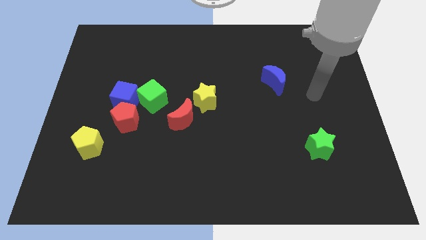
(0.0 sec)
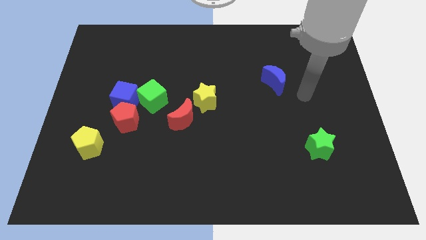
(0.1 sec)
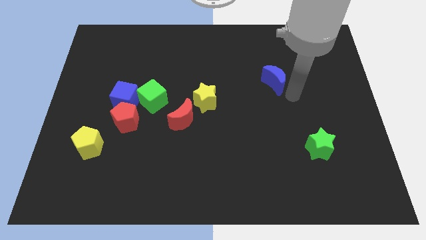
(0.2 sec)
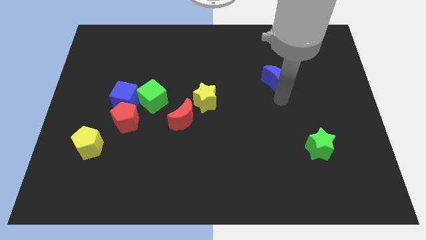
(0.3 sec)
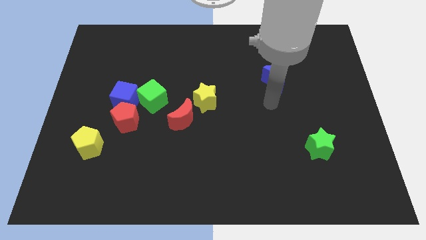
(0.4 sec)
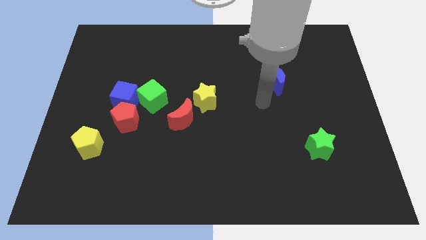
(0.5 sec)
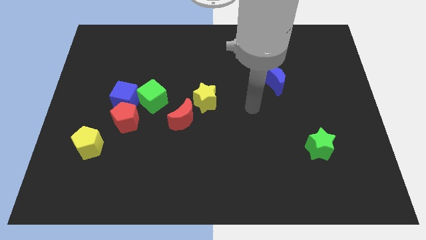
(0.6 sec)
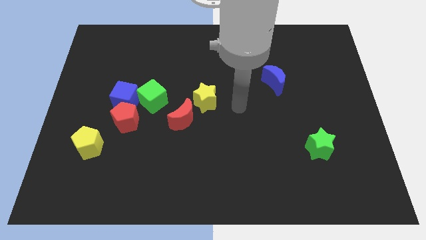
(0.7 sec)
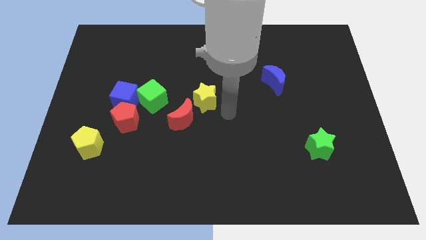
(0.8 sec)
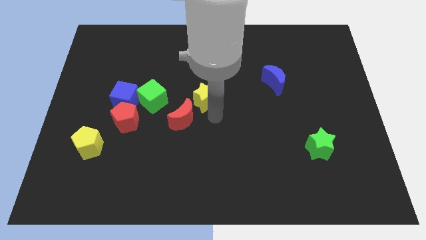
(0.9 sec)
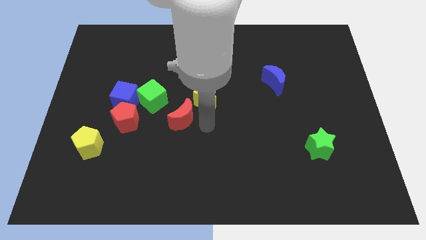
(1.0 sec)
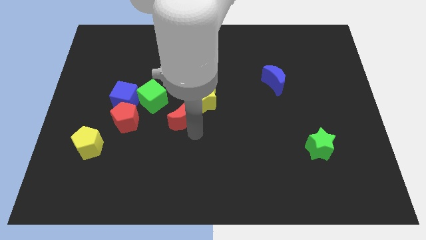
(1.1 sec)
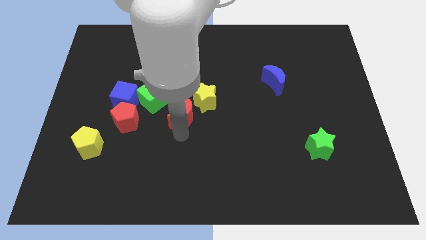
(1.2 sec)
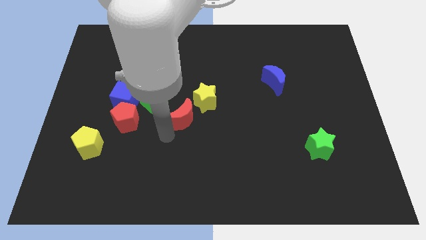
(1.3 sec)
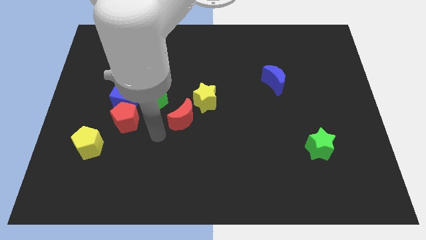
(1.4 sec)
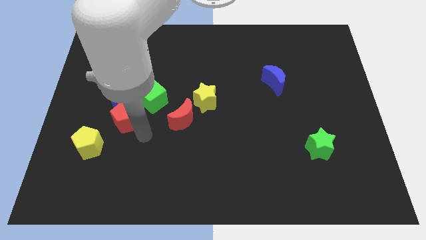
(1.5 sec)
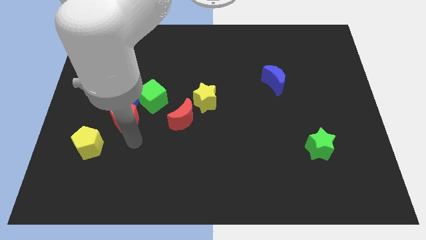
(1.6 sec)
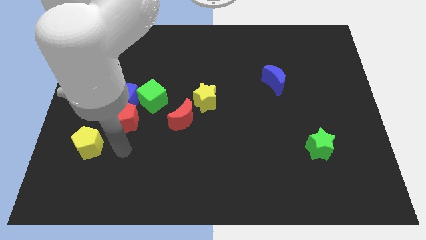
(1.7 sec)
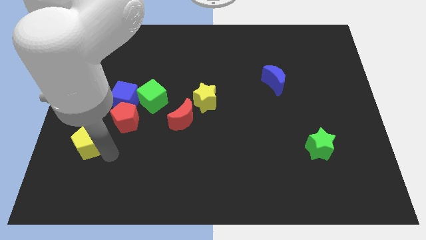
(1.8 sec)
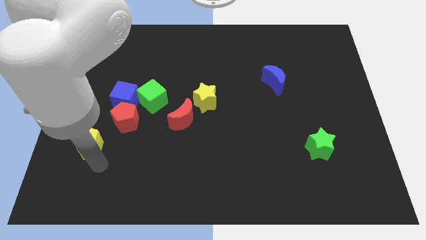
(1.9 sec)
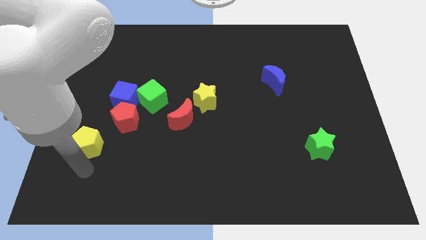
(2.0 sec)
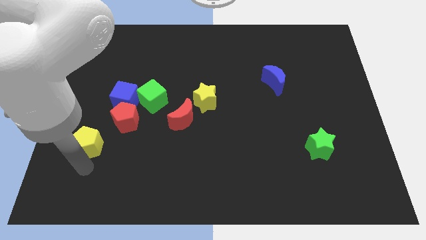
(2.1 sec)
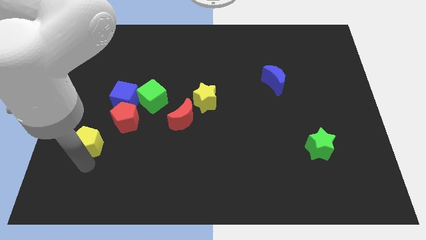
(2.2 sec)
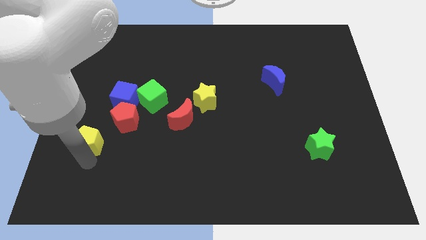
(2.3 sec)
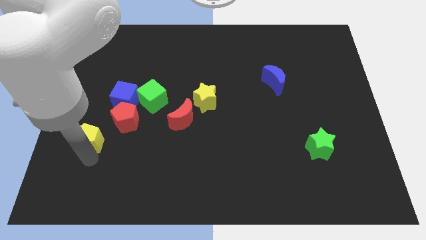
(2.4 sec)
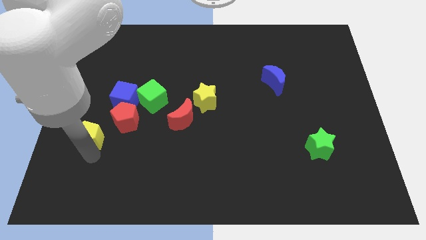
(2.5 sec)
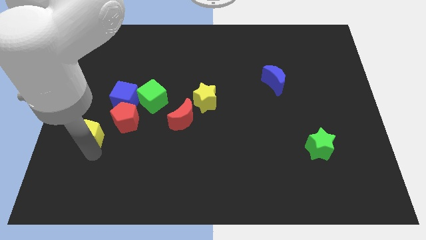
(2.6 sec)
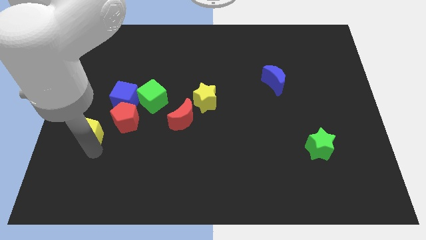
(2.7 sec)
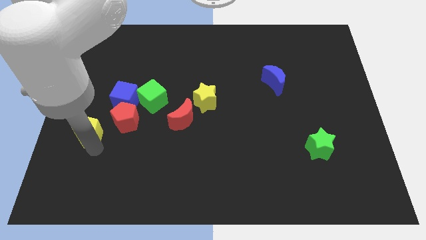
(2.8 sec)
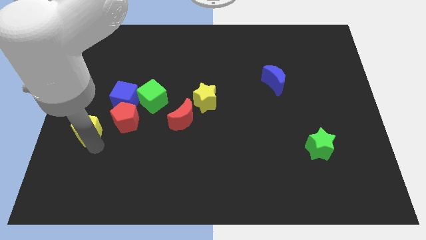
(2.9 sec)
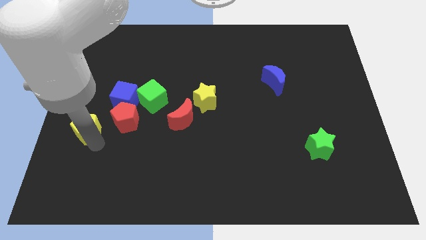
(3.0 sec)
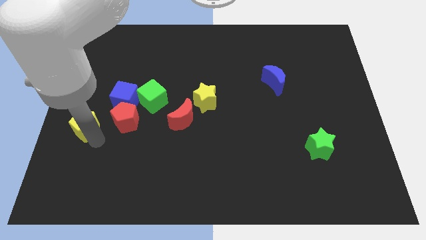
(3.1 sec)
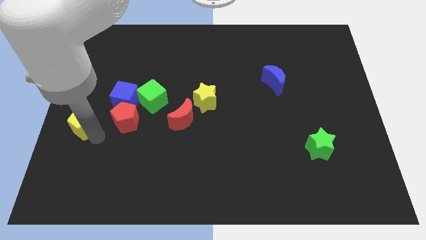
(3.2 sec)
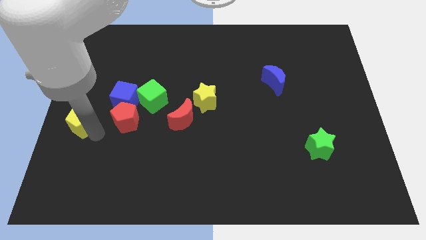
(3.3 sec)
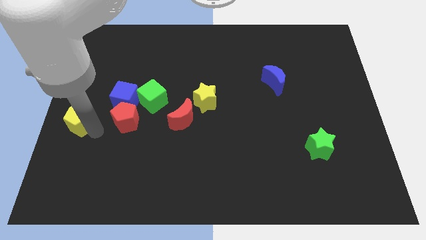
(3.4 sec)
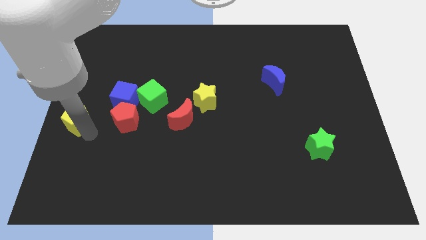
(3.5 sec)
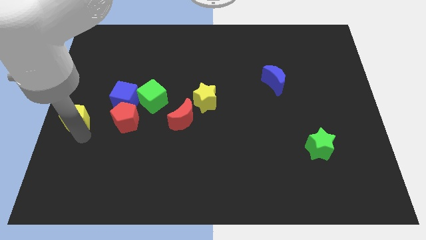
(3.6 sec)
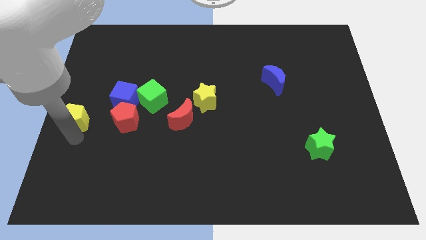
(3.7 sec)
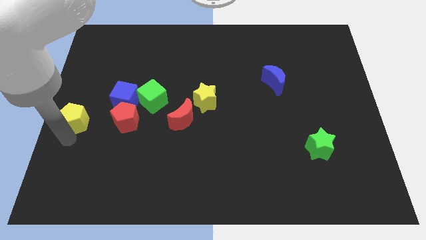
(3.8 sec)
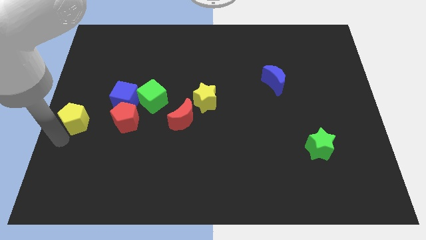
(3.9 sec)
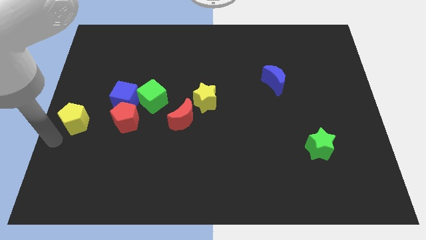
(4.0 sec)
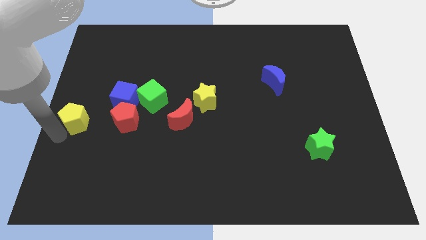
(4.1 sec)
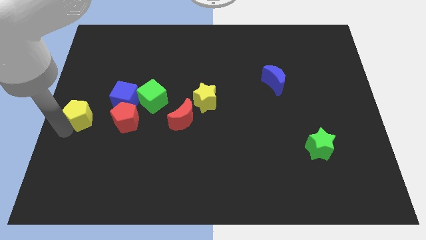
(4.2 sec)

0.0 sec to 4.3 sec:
move the yellow pentagon upwards a bit

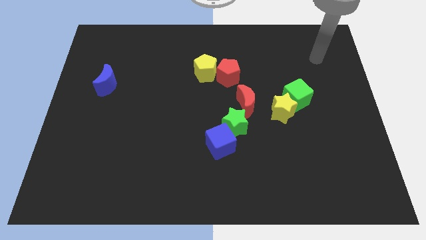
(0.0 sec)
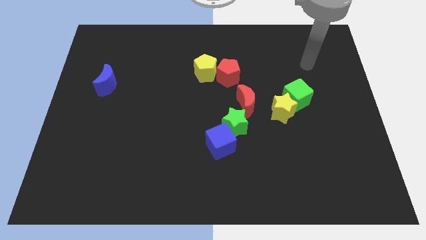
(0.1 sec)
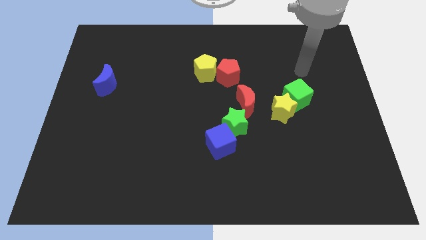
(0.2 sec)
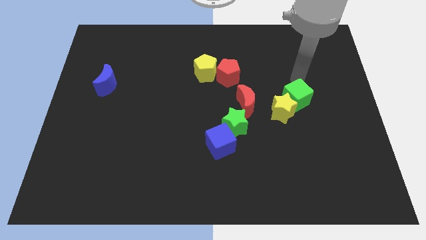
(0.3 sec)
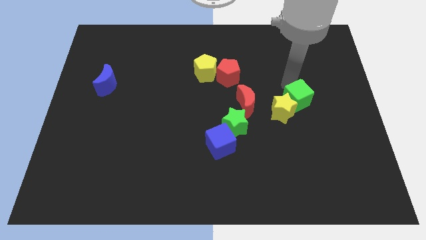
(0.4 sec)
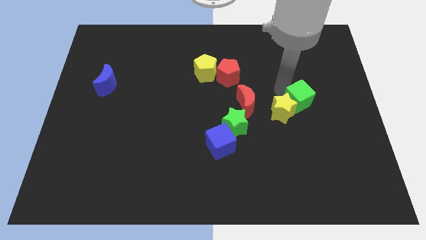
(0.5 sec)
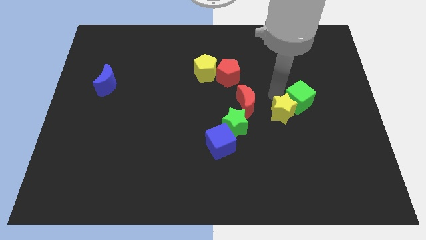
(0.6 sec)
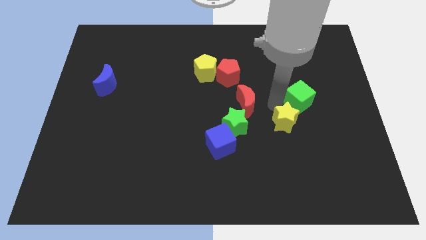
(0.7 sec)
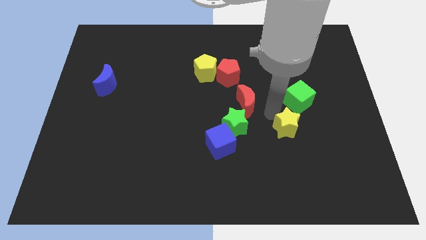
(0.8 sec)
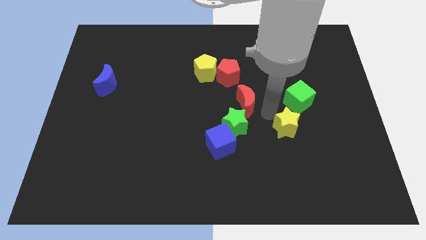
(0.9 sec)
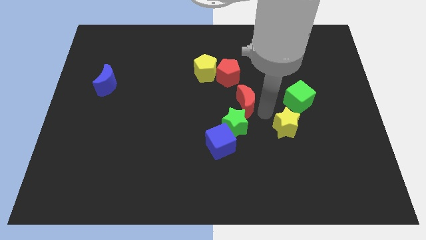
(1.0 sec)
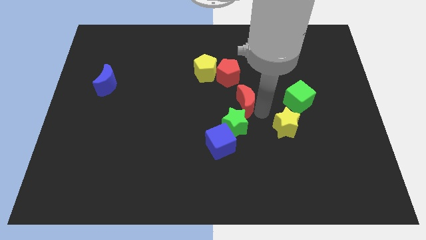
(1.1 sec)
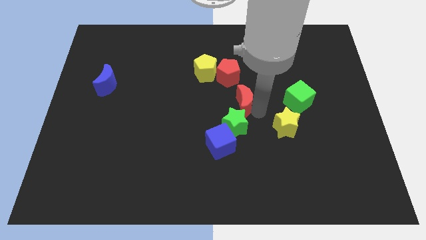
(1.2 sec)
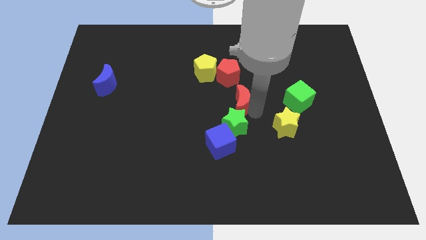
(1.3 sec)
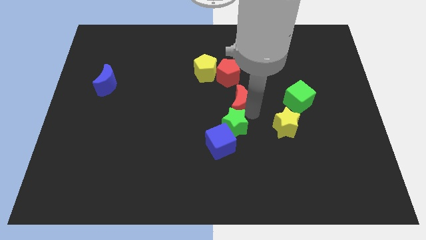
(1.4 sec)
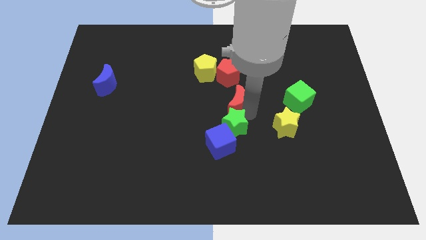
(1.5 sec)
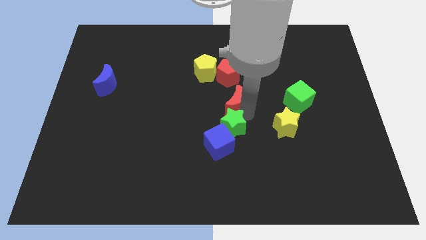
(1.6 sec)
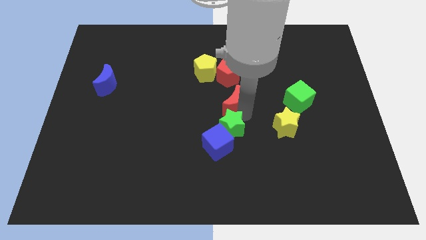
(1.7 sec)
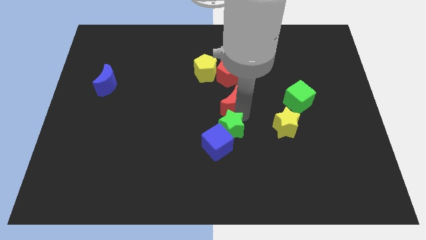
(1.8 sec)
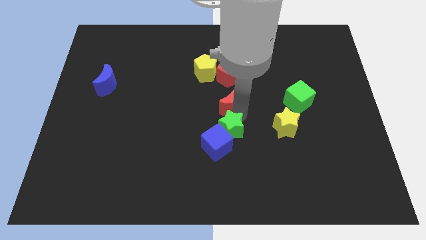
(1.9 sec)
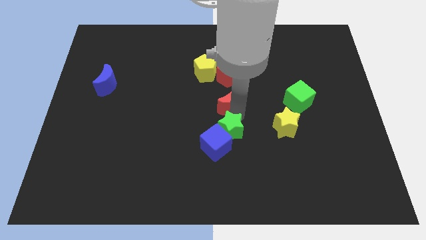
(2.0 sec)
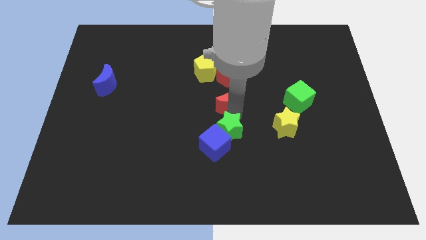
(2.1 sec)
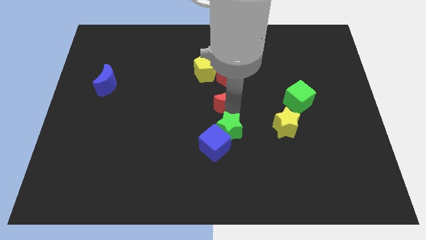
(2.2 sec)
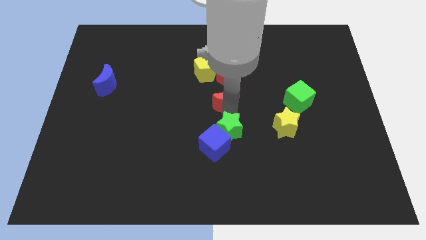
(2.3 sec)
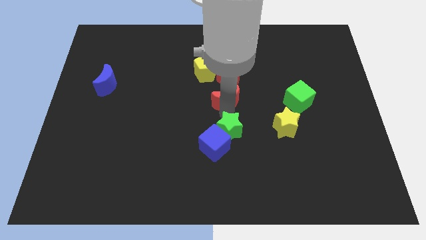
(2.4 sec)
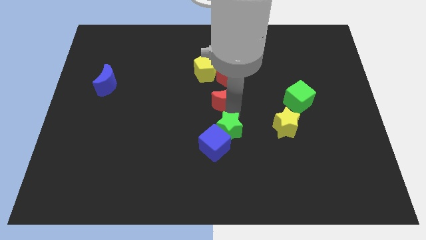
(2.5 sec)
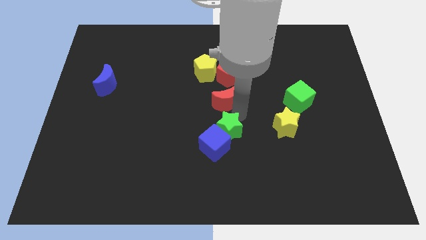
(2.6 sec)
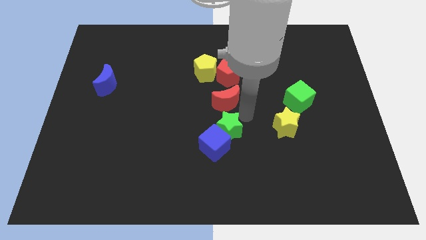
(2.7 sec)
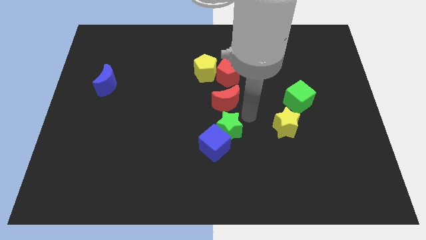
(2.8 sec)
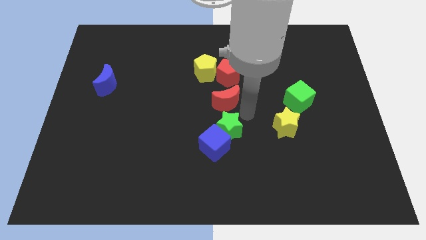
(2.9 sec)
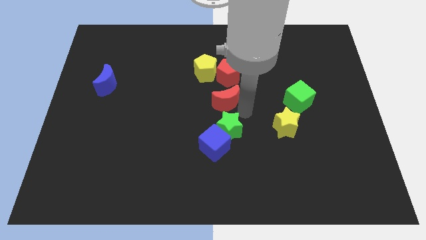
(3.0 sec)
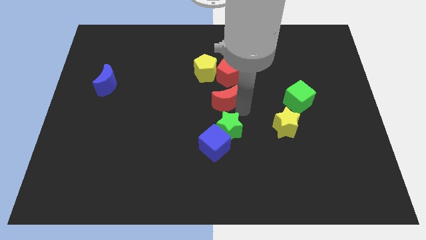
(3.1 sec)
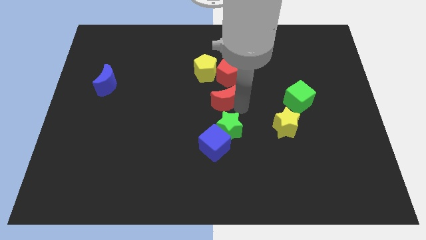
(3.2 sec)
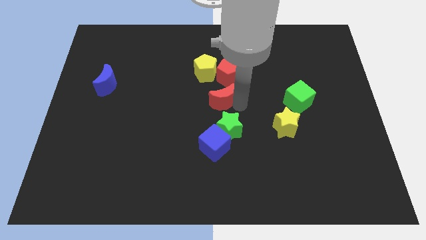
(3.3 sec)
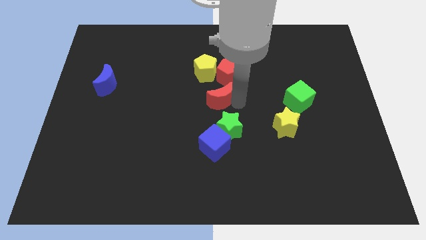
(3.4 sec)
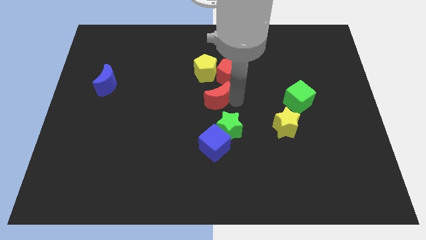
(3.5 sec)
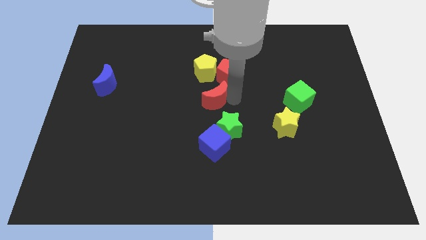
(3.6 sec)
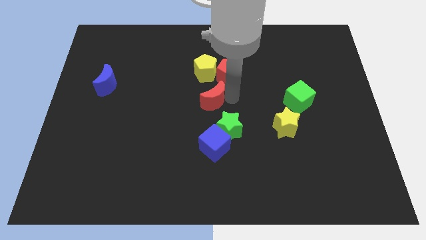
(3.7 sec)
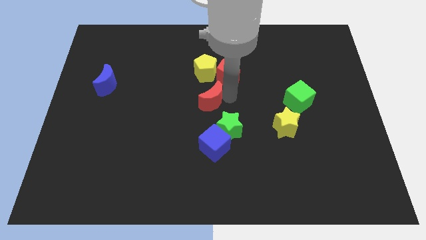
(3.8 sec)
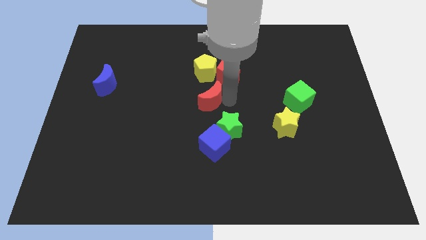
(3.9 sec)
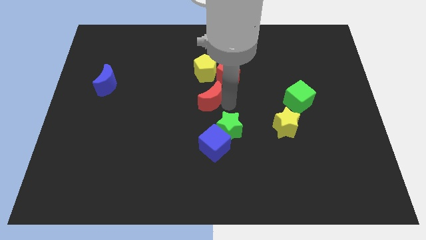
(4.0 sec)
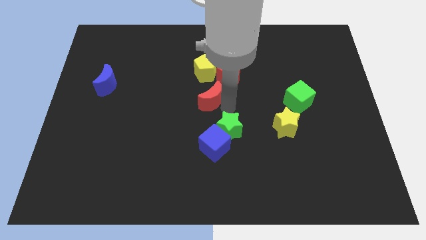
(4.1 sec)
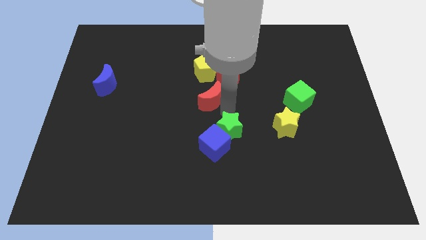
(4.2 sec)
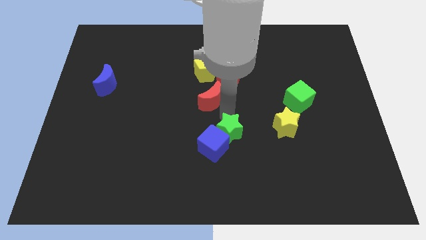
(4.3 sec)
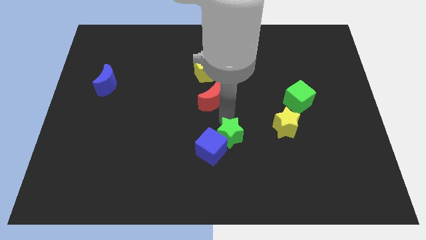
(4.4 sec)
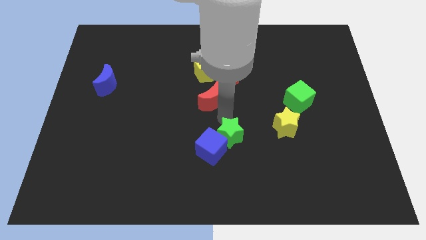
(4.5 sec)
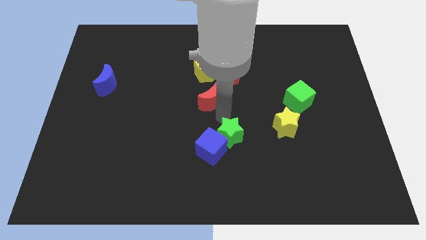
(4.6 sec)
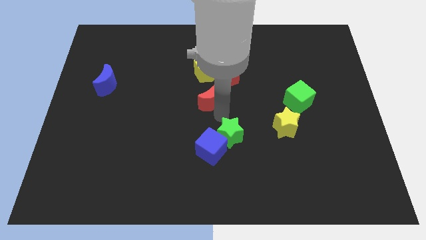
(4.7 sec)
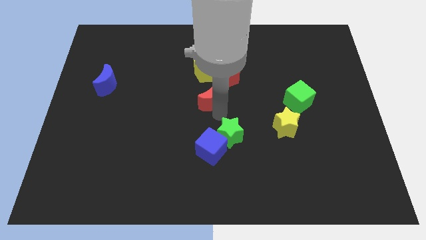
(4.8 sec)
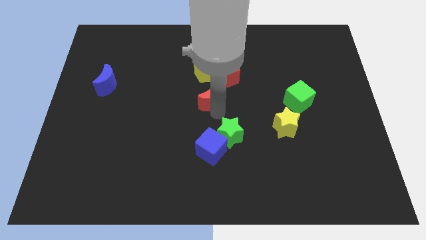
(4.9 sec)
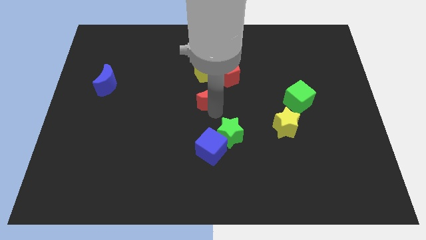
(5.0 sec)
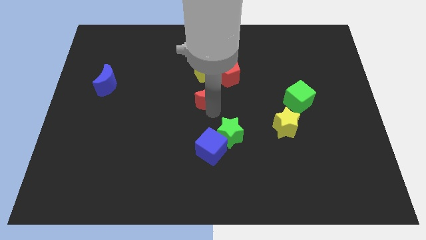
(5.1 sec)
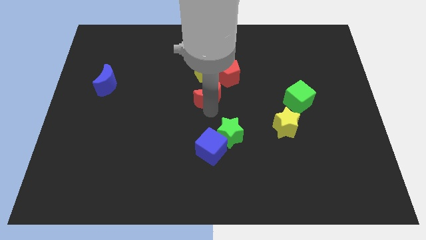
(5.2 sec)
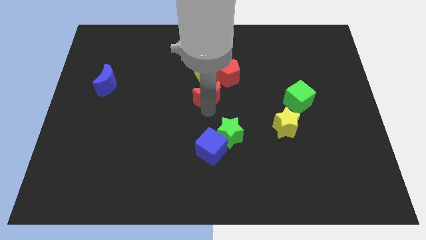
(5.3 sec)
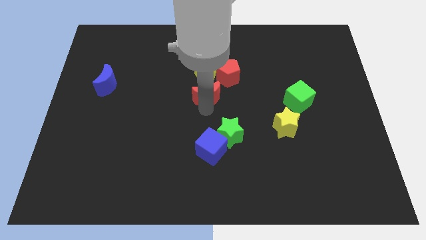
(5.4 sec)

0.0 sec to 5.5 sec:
slightly push the red moon up and then left
